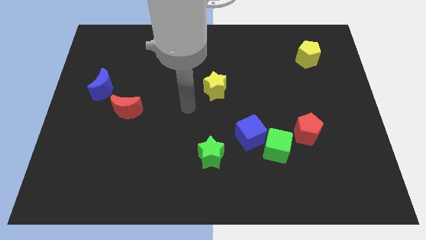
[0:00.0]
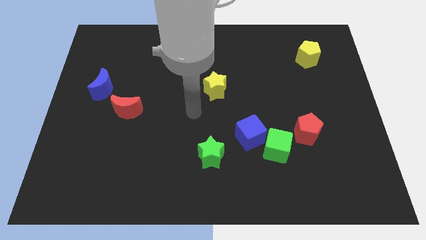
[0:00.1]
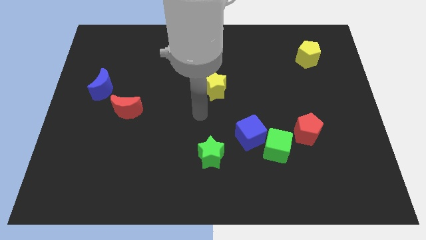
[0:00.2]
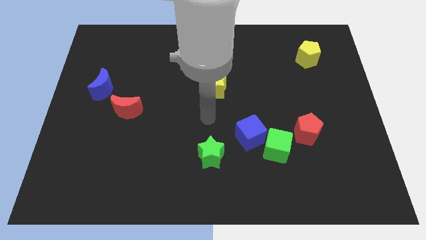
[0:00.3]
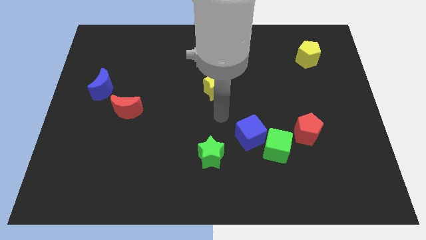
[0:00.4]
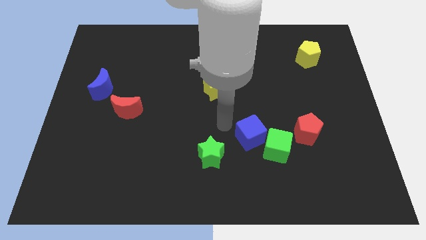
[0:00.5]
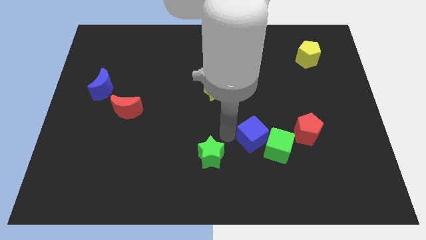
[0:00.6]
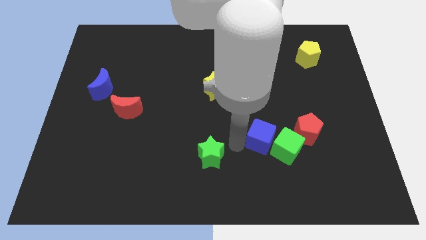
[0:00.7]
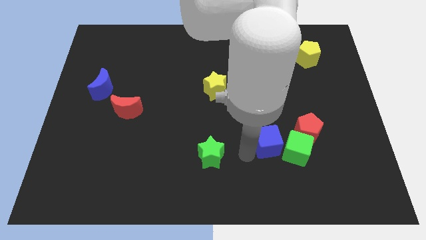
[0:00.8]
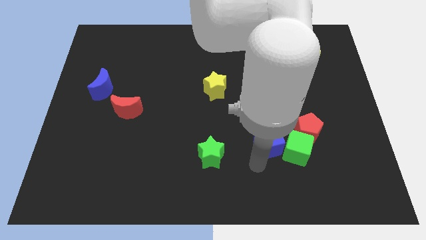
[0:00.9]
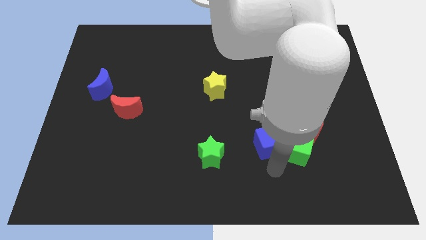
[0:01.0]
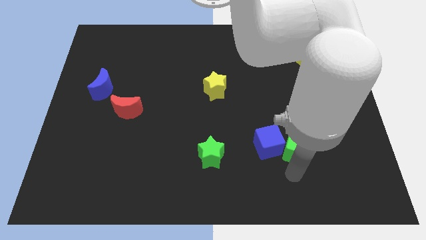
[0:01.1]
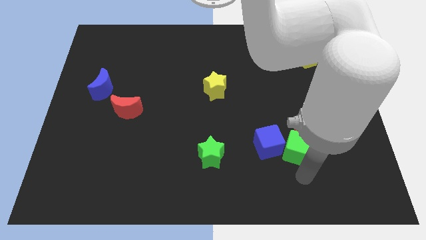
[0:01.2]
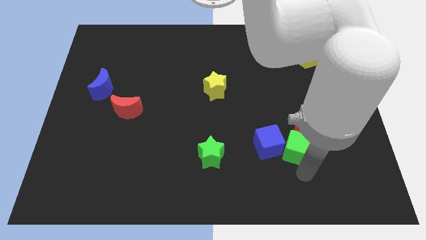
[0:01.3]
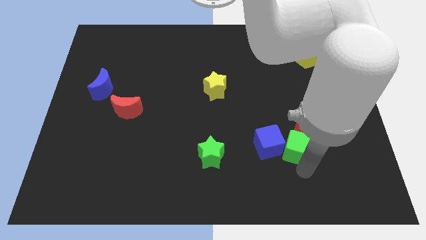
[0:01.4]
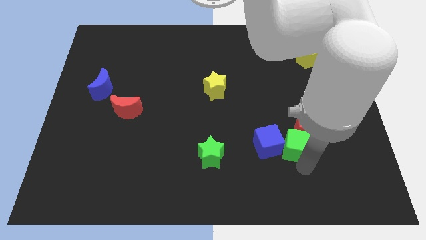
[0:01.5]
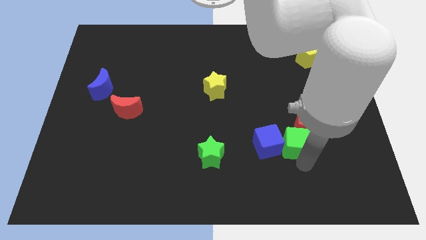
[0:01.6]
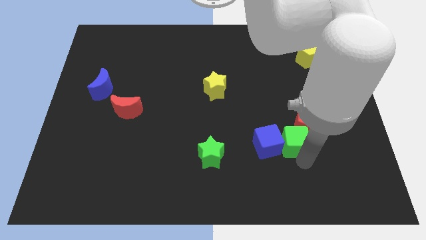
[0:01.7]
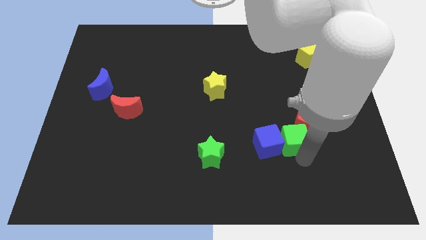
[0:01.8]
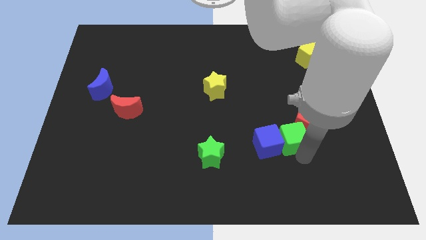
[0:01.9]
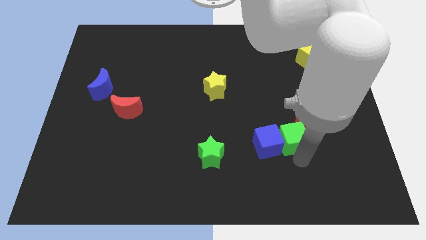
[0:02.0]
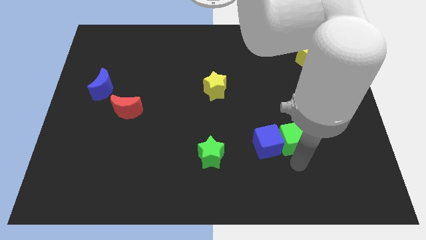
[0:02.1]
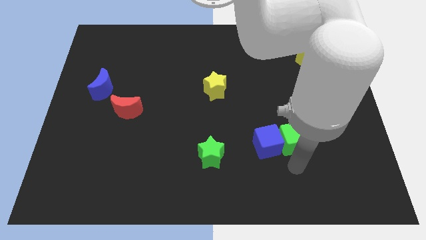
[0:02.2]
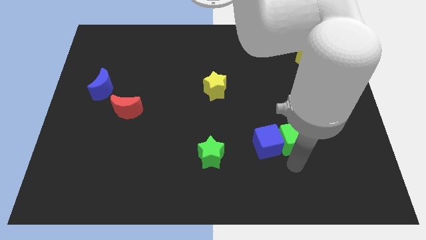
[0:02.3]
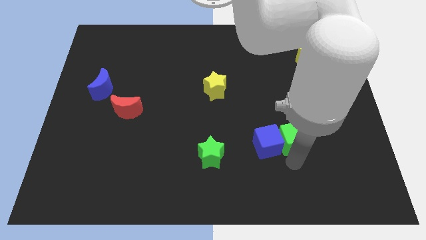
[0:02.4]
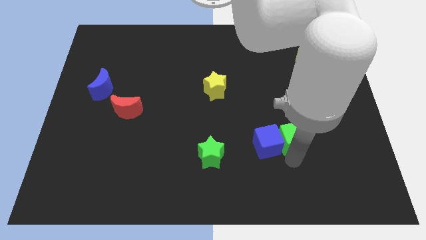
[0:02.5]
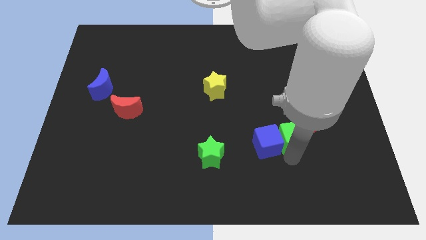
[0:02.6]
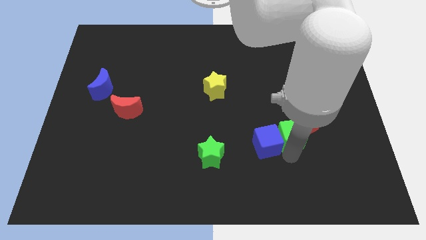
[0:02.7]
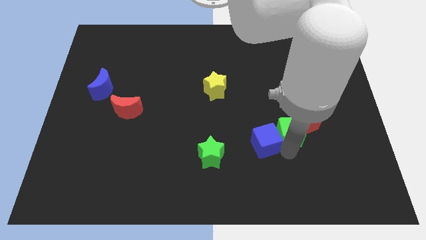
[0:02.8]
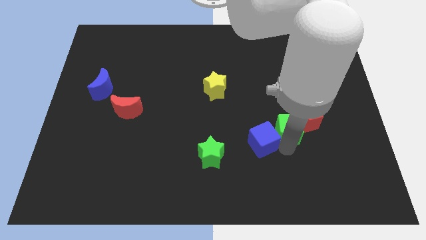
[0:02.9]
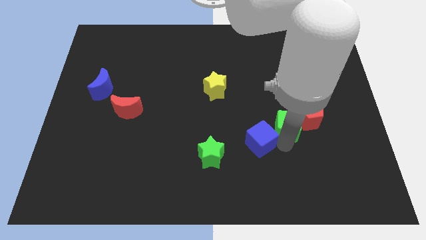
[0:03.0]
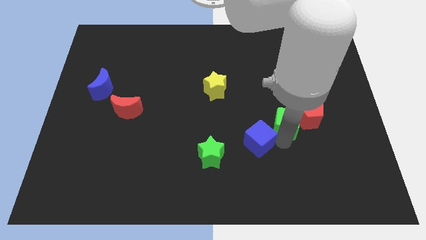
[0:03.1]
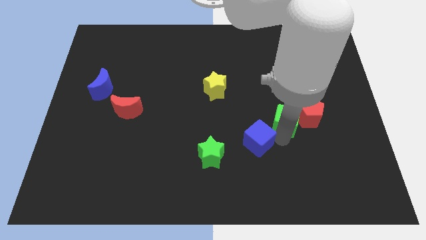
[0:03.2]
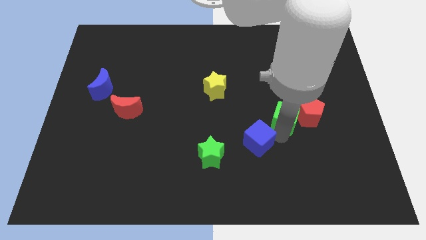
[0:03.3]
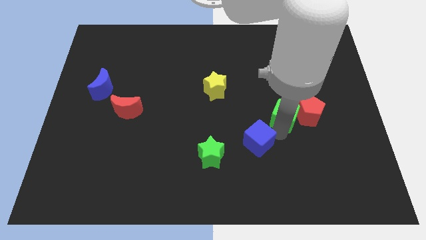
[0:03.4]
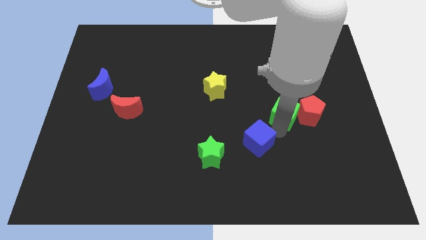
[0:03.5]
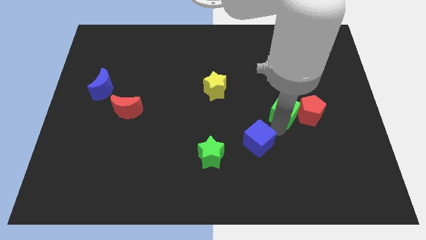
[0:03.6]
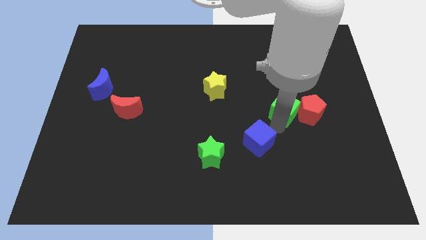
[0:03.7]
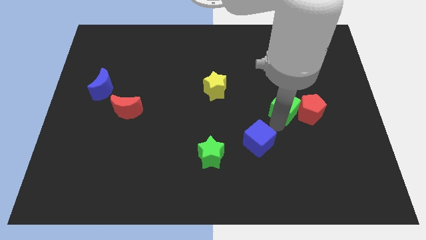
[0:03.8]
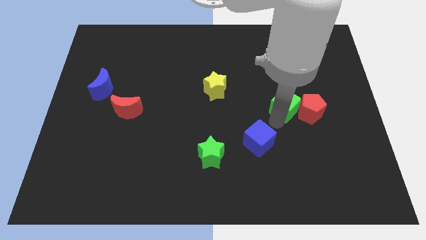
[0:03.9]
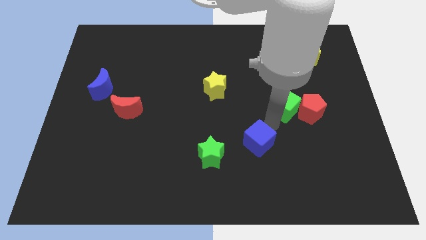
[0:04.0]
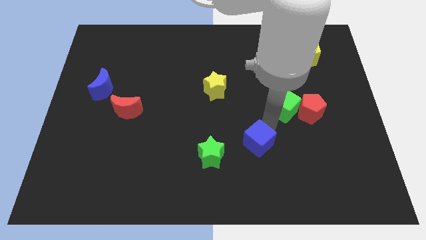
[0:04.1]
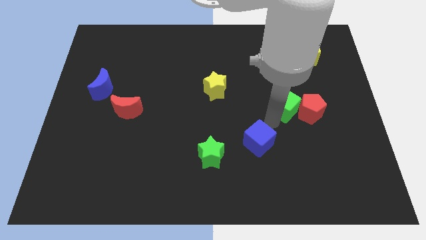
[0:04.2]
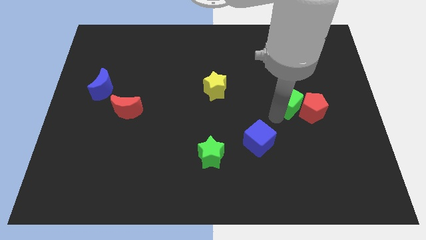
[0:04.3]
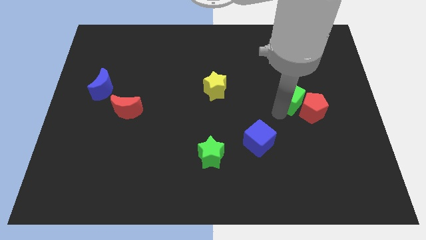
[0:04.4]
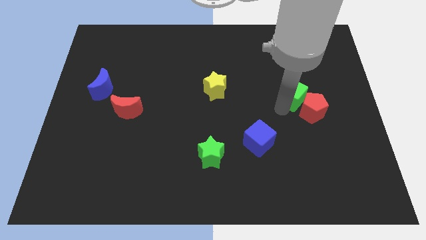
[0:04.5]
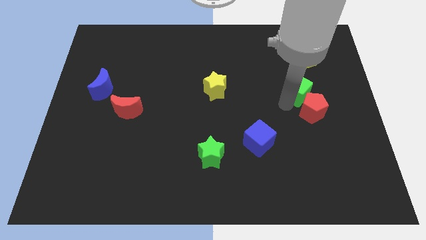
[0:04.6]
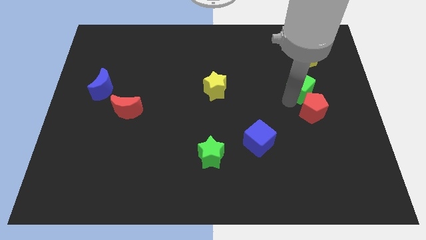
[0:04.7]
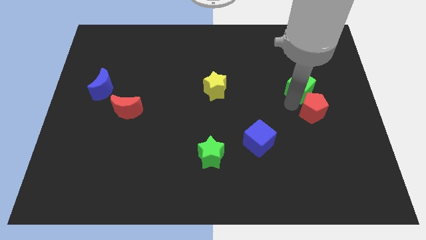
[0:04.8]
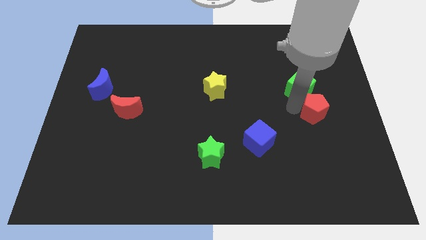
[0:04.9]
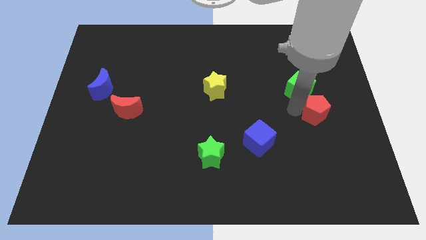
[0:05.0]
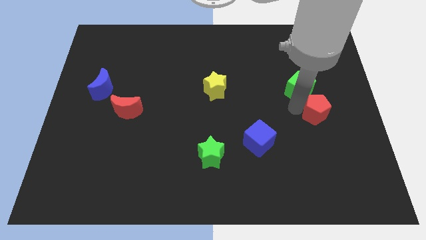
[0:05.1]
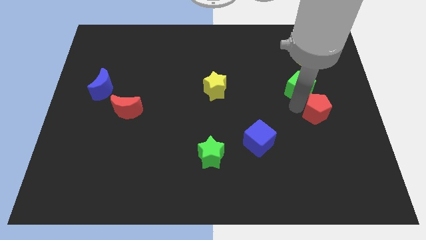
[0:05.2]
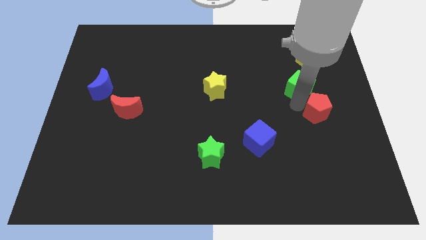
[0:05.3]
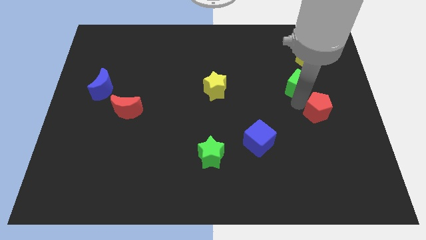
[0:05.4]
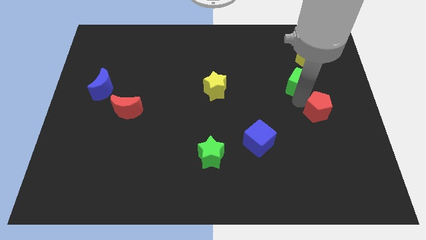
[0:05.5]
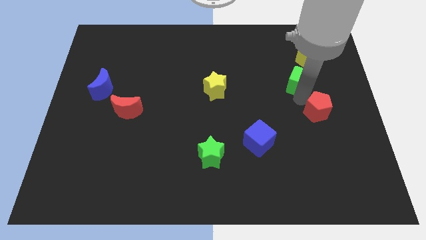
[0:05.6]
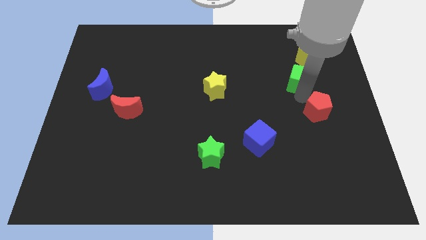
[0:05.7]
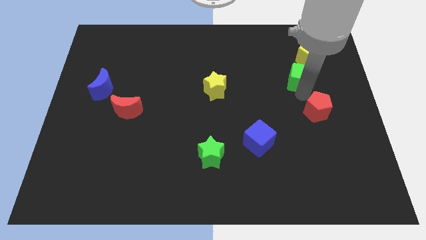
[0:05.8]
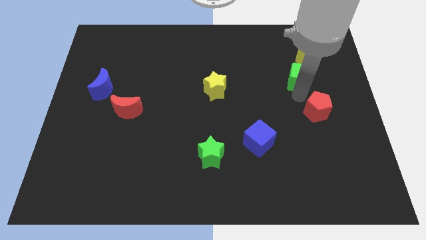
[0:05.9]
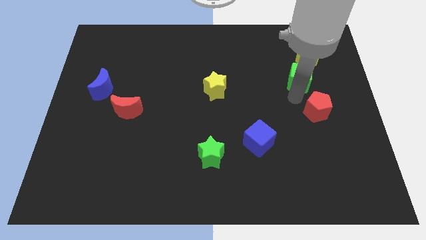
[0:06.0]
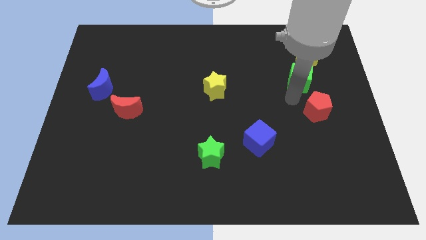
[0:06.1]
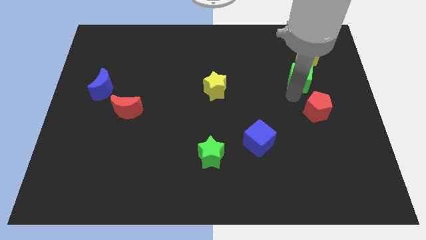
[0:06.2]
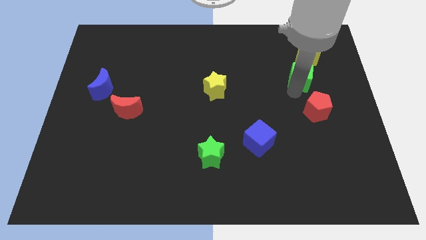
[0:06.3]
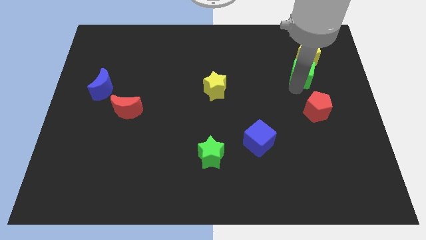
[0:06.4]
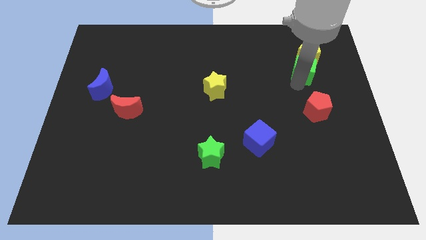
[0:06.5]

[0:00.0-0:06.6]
move the green cube towards the yellow pentagon

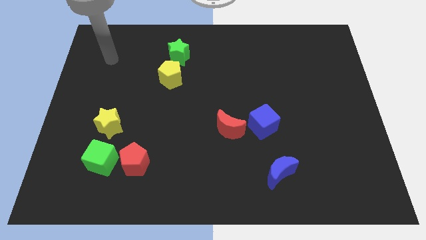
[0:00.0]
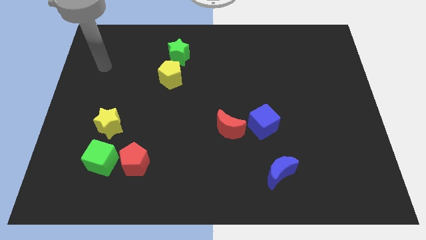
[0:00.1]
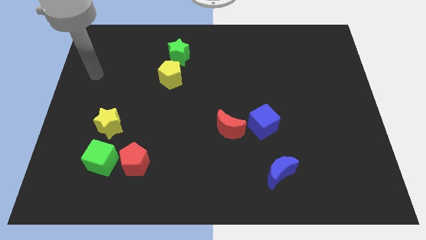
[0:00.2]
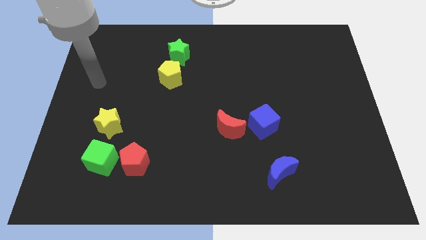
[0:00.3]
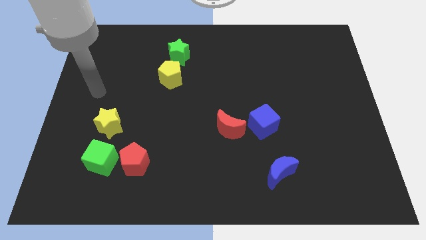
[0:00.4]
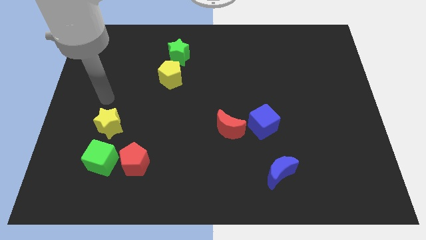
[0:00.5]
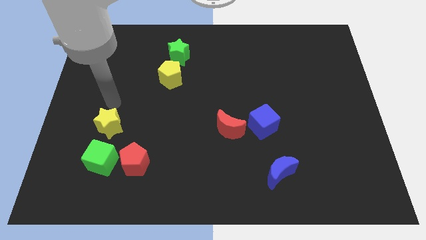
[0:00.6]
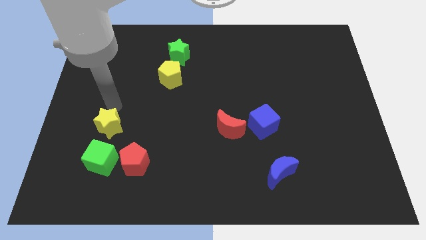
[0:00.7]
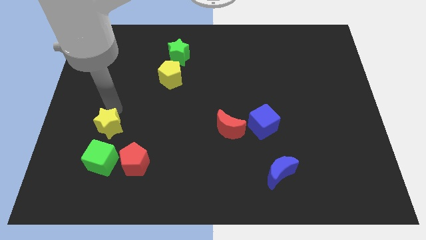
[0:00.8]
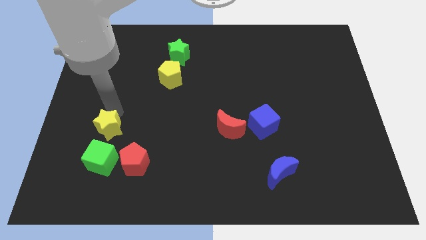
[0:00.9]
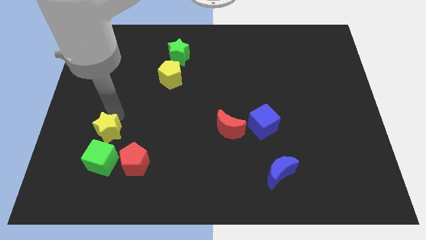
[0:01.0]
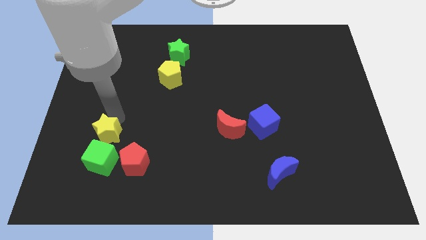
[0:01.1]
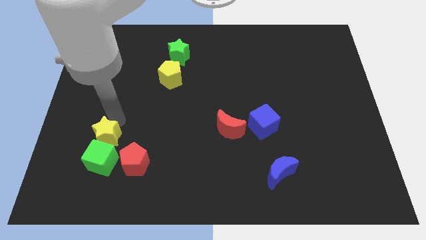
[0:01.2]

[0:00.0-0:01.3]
push the yellow star next to the green cube
